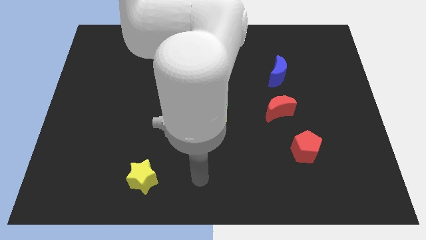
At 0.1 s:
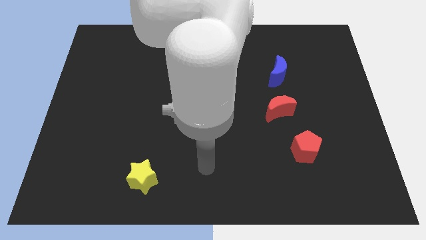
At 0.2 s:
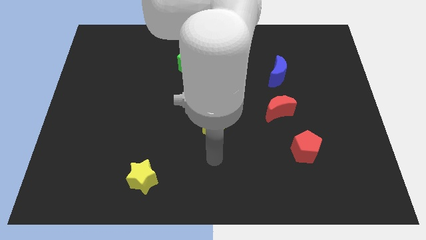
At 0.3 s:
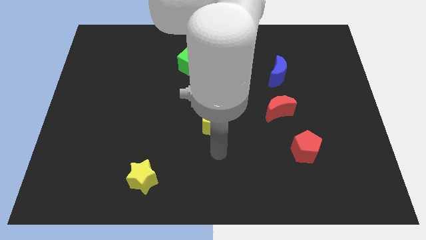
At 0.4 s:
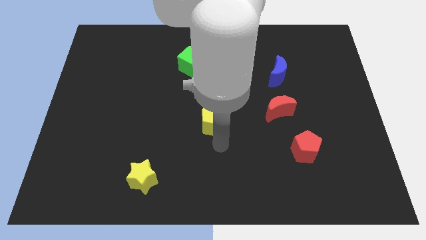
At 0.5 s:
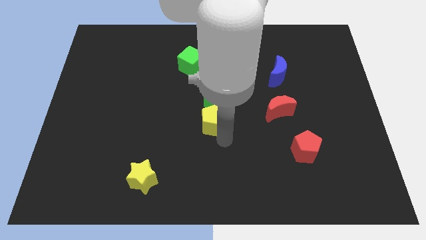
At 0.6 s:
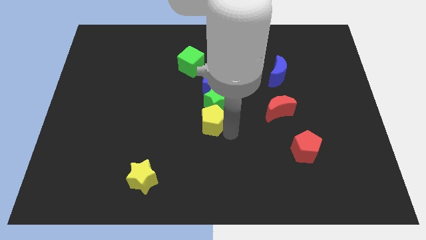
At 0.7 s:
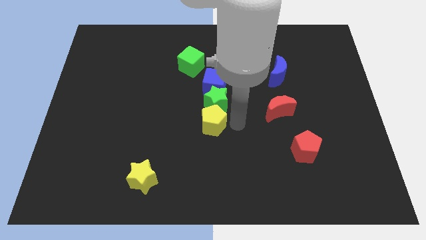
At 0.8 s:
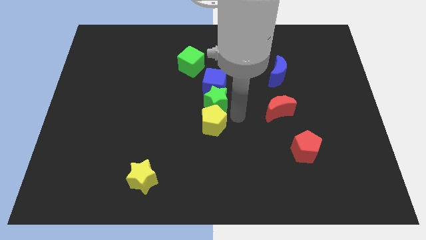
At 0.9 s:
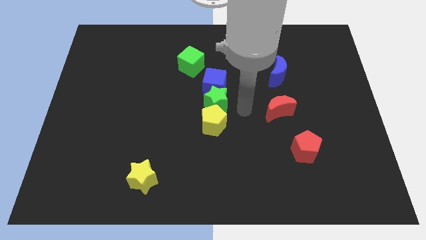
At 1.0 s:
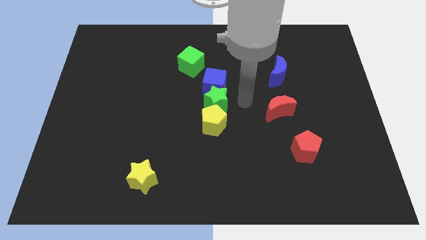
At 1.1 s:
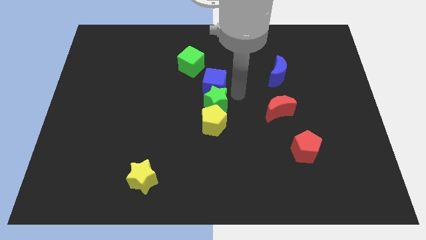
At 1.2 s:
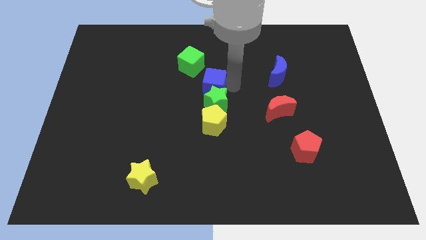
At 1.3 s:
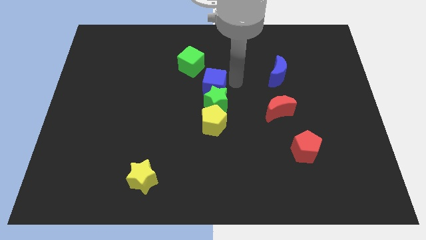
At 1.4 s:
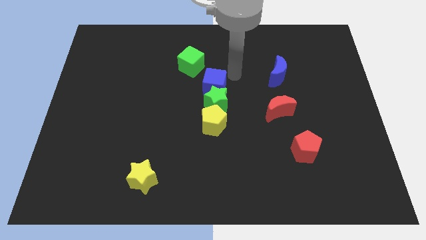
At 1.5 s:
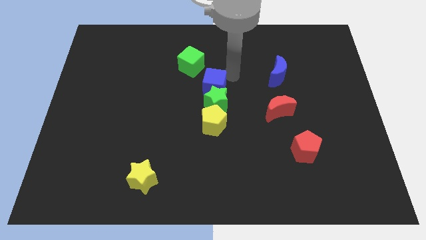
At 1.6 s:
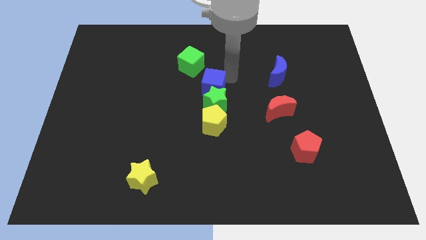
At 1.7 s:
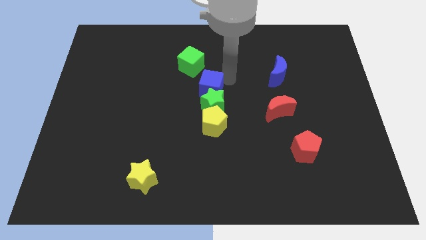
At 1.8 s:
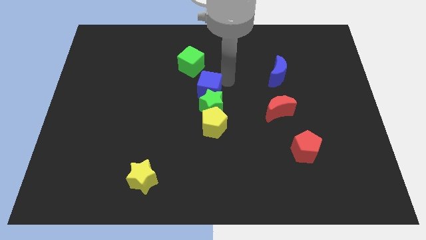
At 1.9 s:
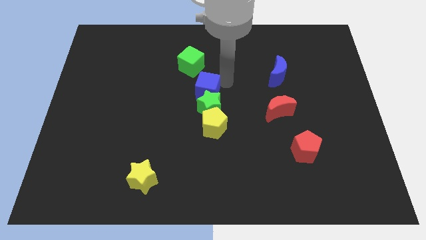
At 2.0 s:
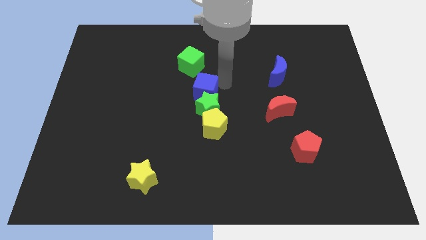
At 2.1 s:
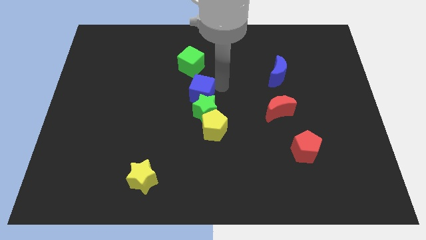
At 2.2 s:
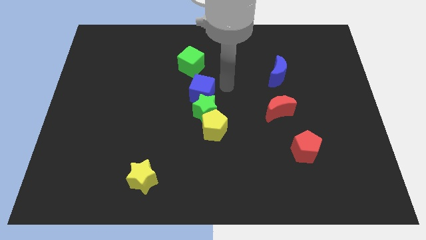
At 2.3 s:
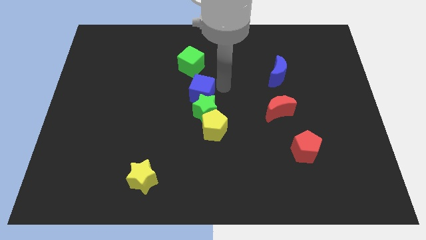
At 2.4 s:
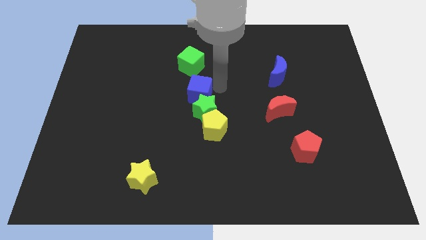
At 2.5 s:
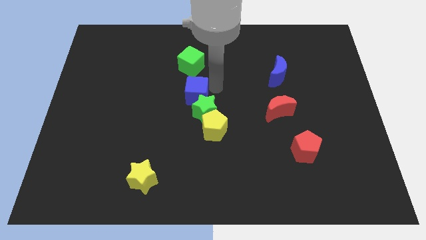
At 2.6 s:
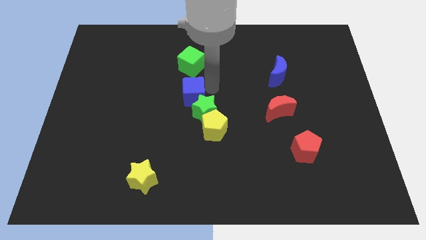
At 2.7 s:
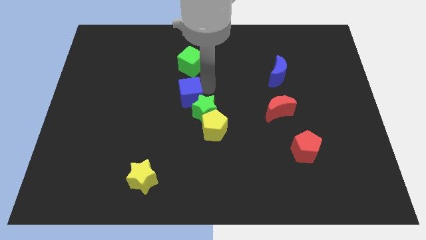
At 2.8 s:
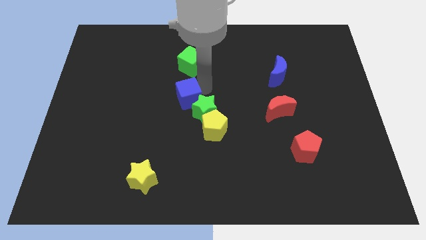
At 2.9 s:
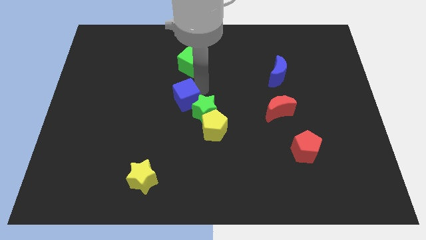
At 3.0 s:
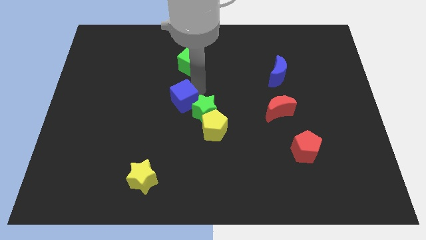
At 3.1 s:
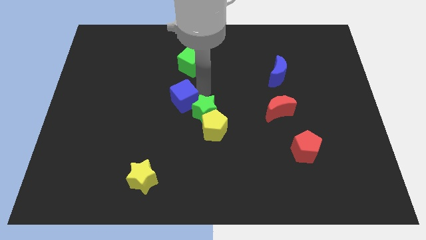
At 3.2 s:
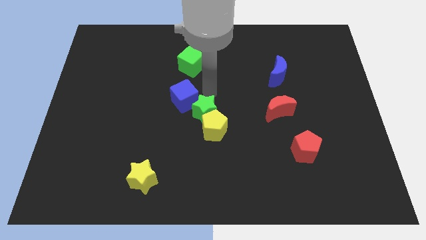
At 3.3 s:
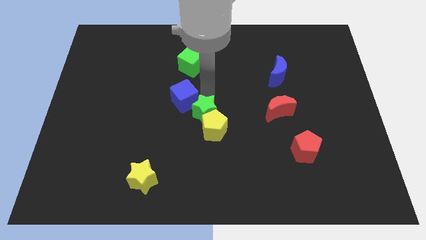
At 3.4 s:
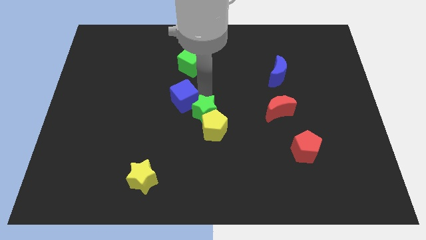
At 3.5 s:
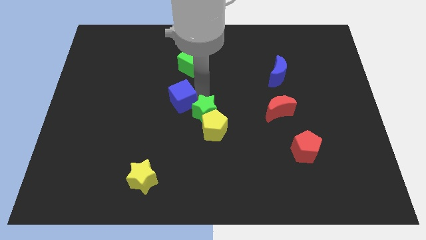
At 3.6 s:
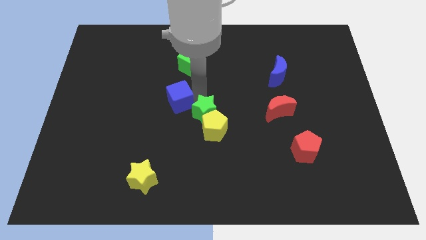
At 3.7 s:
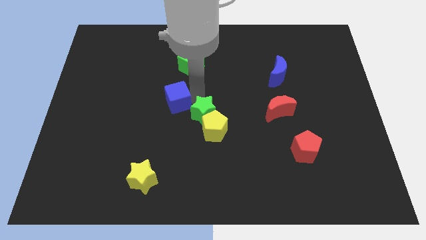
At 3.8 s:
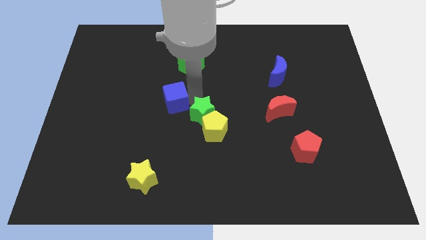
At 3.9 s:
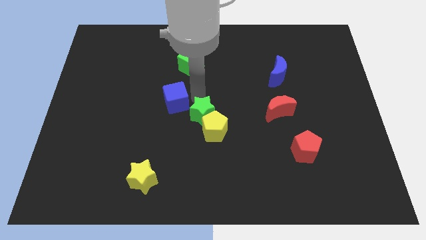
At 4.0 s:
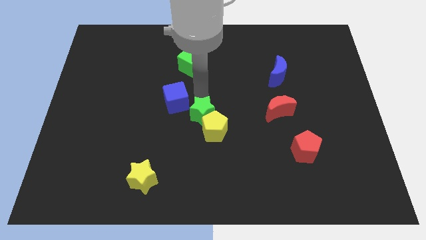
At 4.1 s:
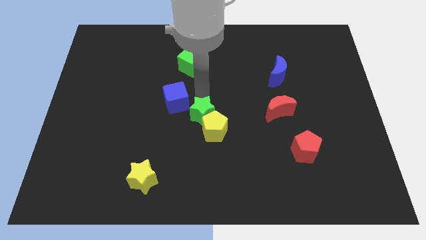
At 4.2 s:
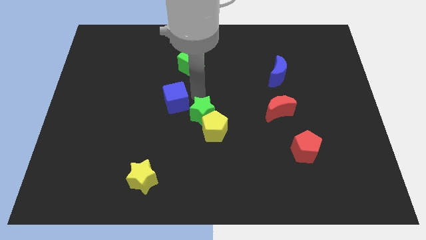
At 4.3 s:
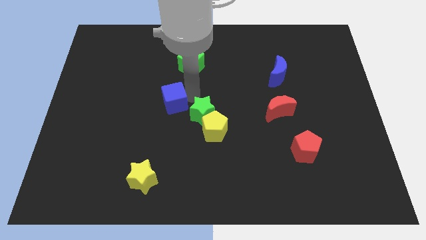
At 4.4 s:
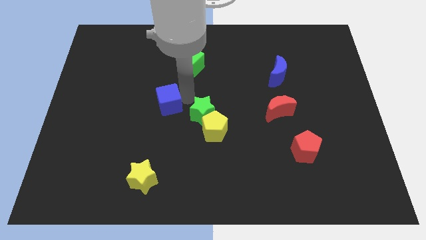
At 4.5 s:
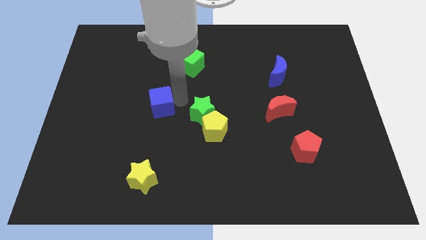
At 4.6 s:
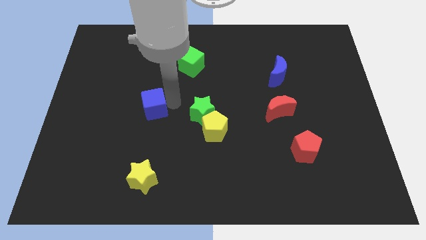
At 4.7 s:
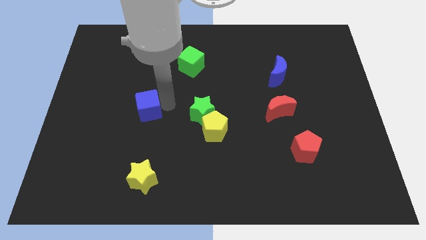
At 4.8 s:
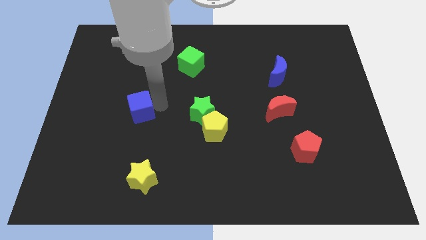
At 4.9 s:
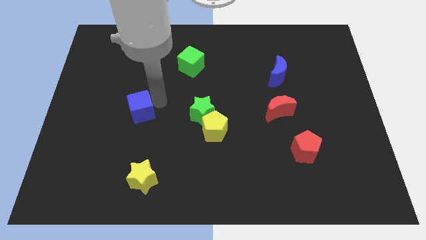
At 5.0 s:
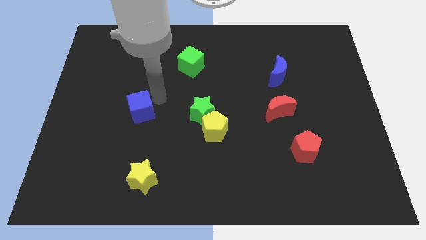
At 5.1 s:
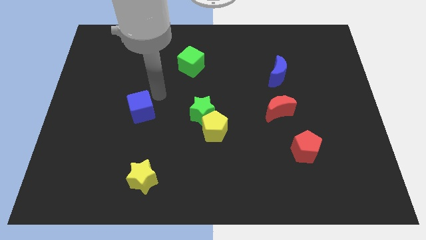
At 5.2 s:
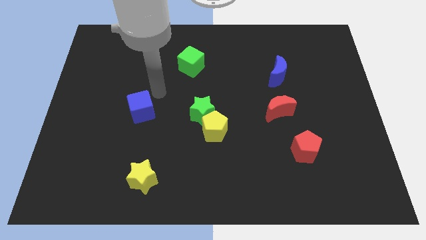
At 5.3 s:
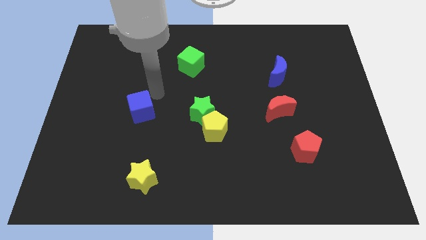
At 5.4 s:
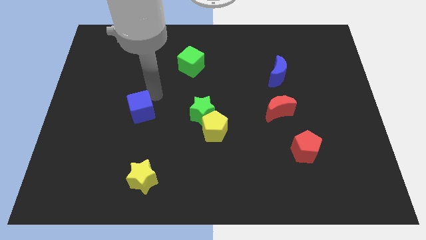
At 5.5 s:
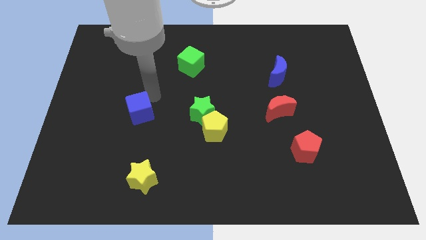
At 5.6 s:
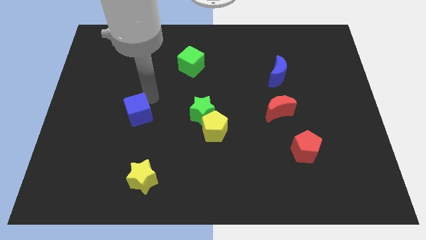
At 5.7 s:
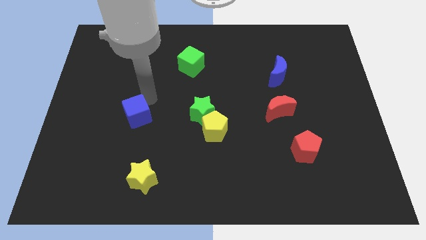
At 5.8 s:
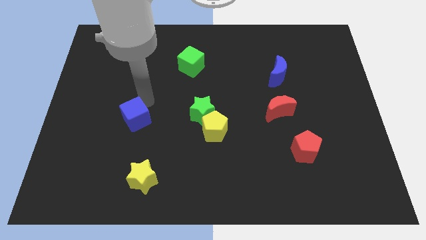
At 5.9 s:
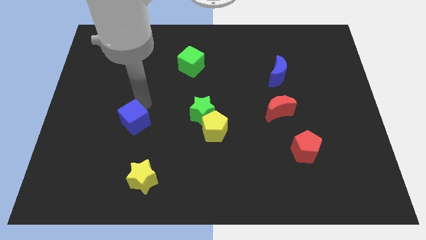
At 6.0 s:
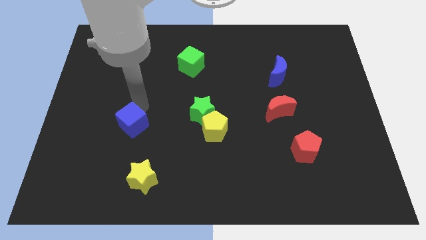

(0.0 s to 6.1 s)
move the blue cube down and left diagonally

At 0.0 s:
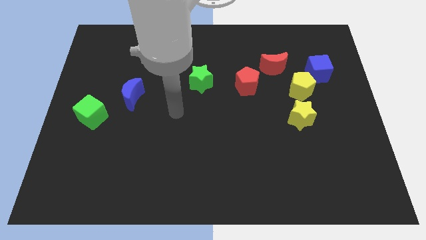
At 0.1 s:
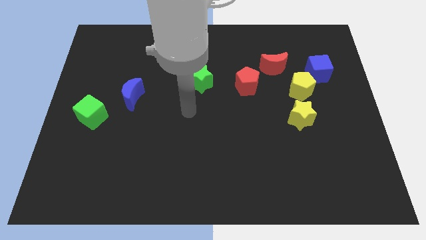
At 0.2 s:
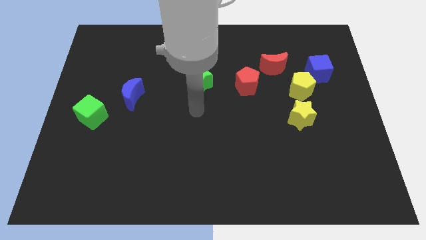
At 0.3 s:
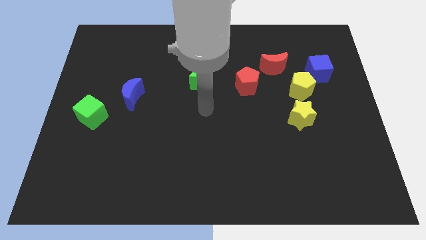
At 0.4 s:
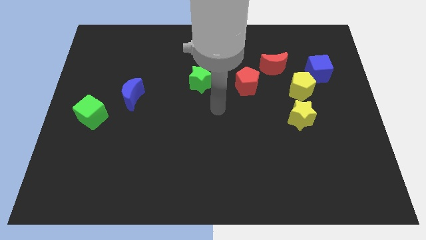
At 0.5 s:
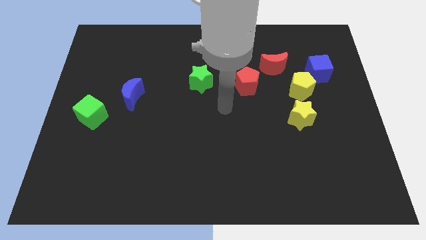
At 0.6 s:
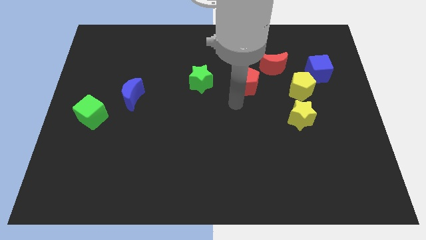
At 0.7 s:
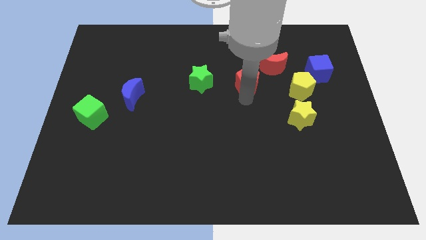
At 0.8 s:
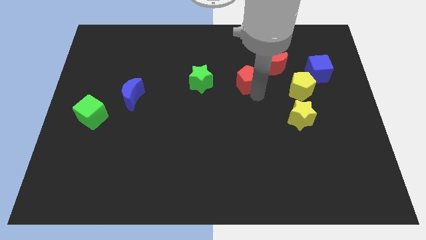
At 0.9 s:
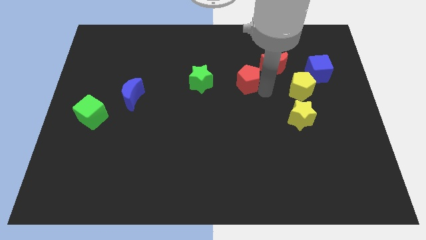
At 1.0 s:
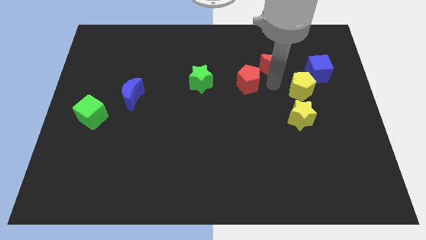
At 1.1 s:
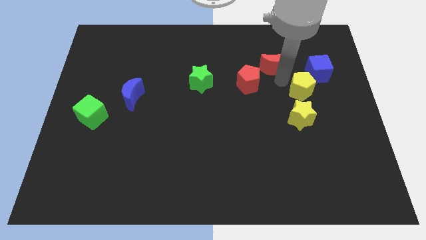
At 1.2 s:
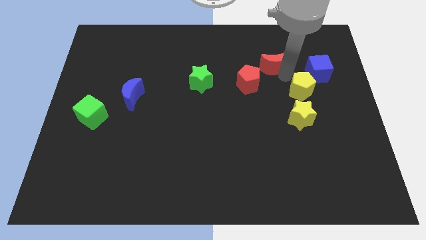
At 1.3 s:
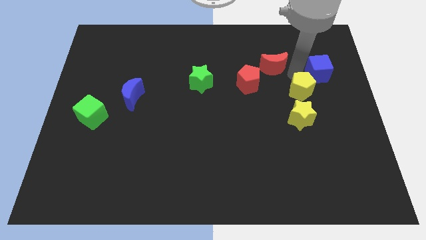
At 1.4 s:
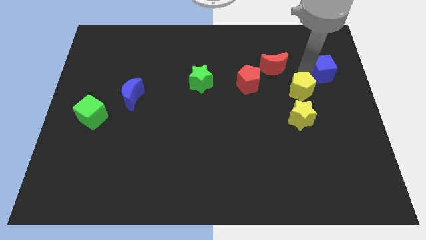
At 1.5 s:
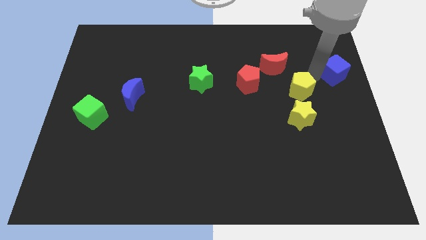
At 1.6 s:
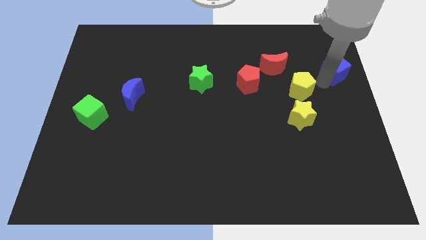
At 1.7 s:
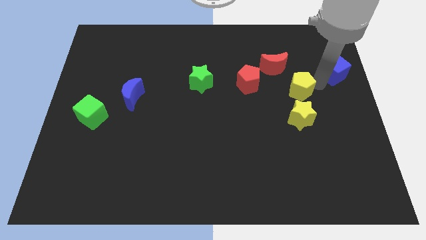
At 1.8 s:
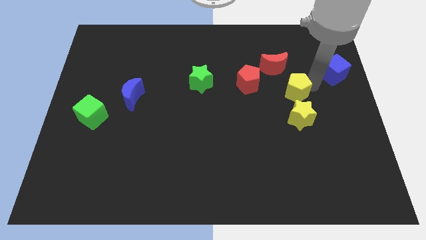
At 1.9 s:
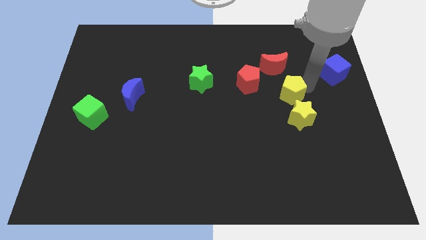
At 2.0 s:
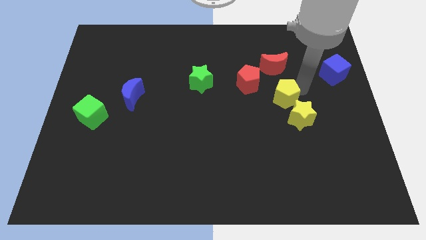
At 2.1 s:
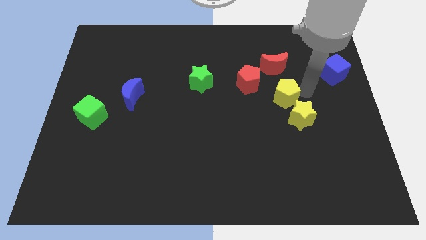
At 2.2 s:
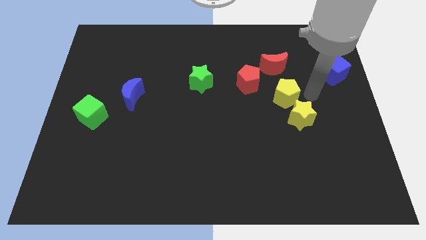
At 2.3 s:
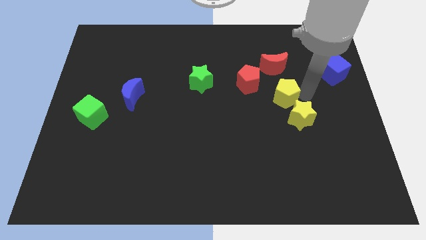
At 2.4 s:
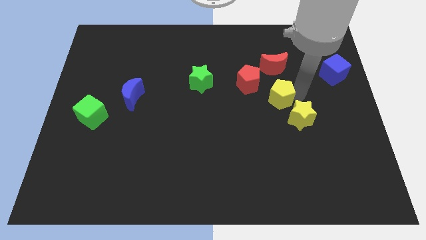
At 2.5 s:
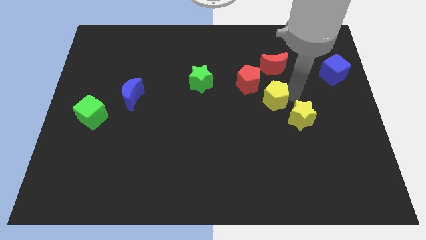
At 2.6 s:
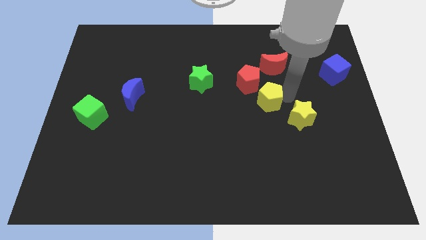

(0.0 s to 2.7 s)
slightly push the yellow pentagon to the left
